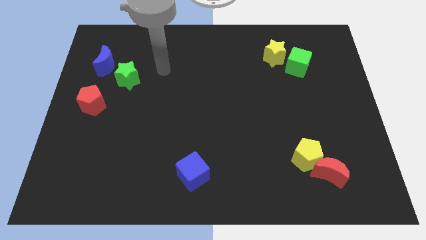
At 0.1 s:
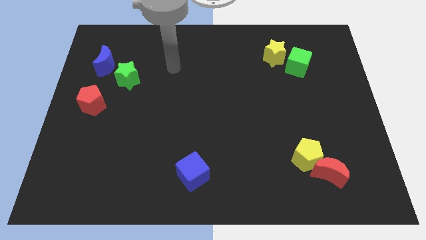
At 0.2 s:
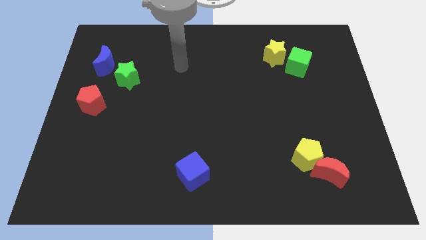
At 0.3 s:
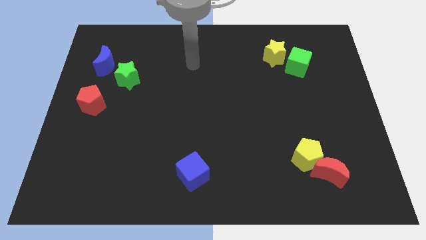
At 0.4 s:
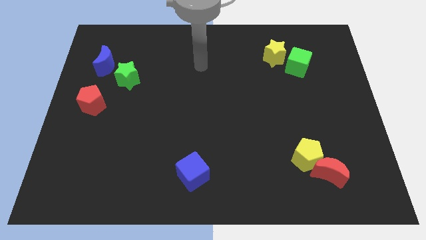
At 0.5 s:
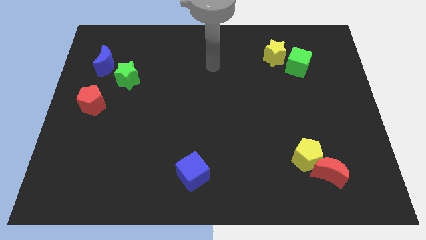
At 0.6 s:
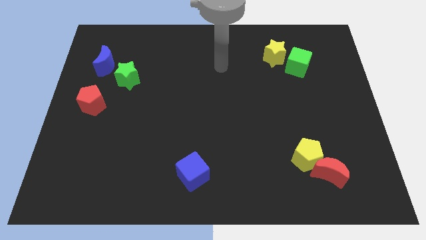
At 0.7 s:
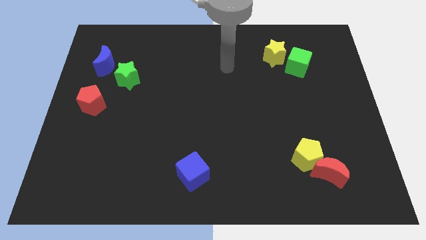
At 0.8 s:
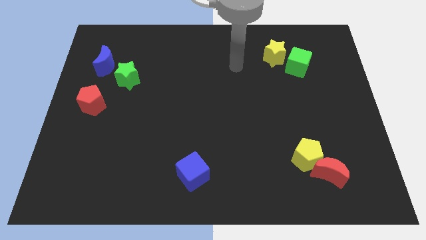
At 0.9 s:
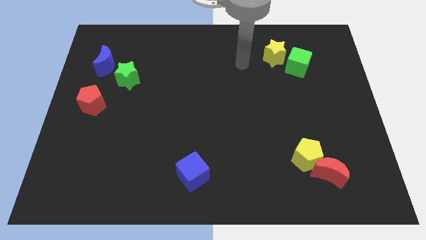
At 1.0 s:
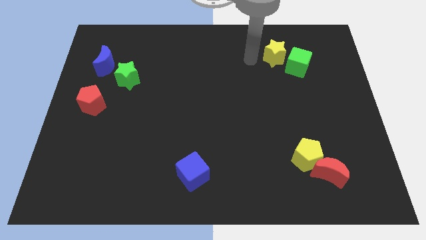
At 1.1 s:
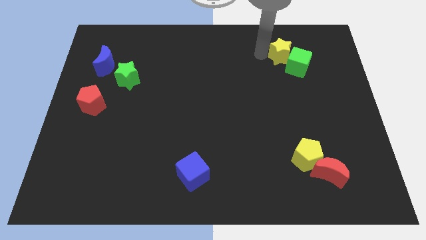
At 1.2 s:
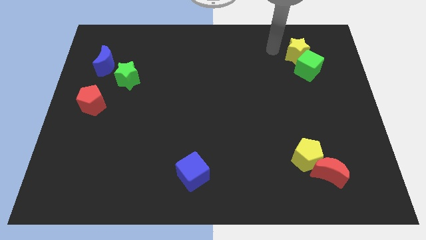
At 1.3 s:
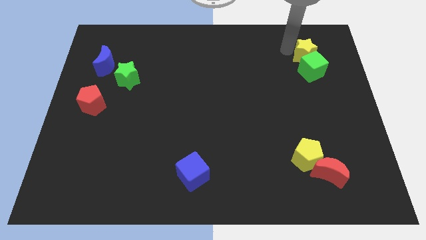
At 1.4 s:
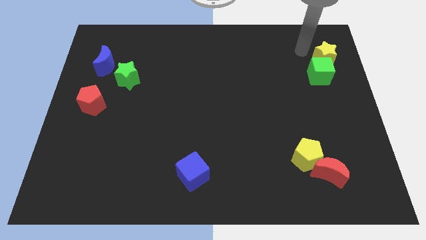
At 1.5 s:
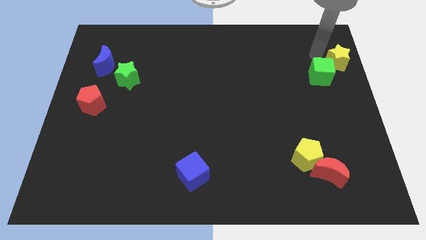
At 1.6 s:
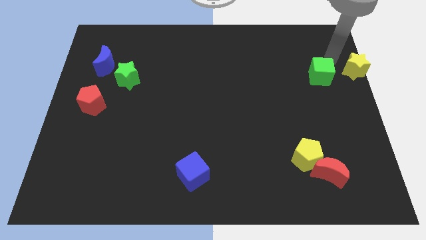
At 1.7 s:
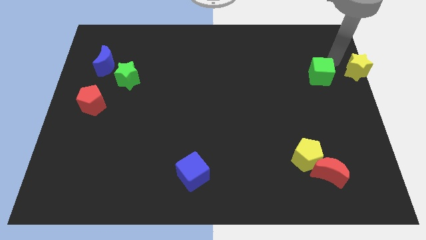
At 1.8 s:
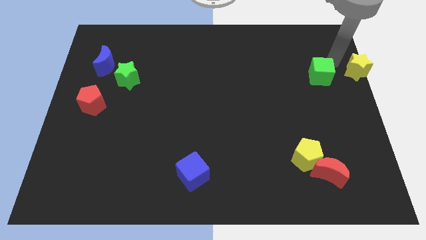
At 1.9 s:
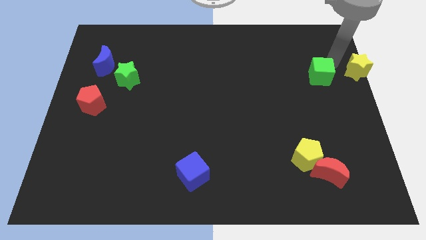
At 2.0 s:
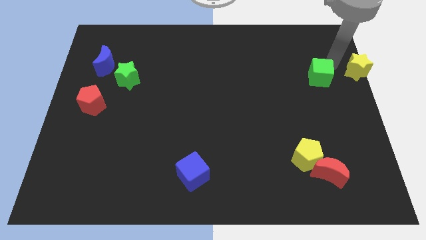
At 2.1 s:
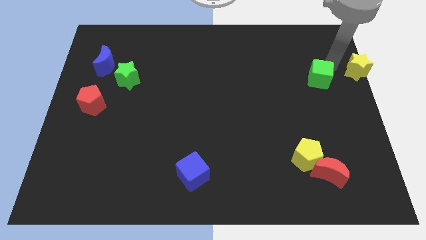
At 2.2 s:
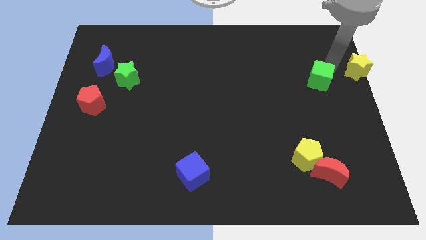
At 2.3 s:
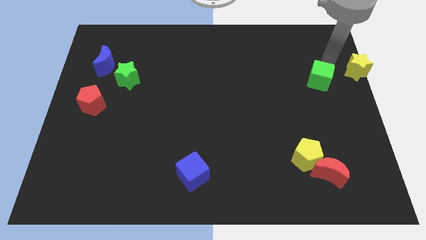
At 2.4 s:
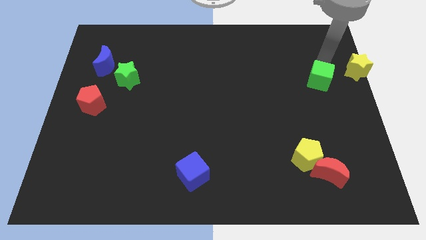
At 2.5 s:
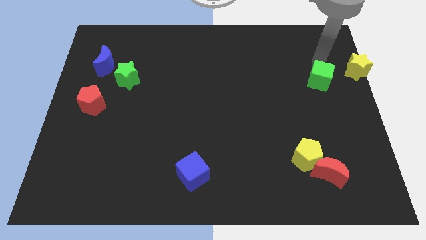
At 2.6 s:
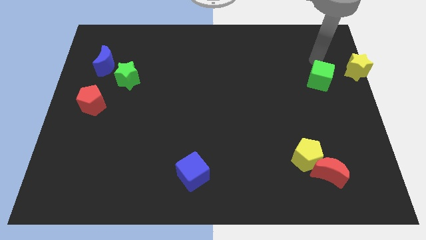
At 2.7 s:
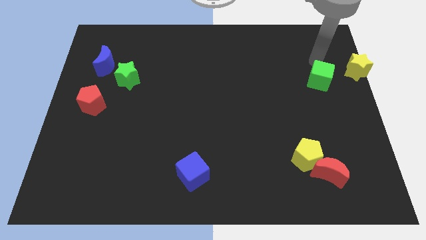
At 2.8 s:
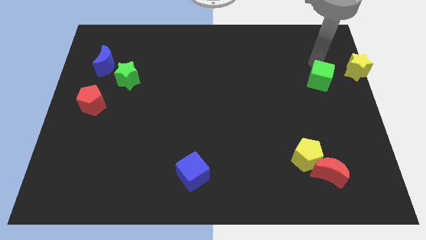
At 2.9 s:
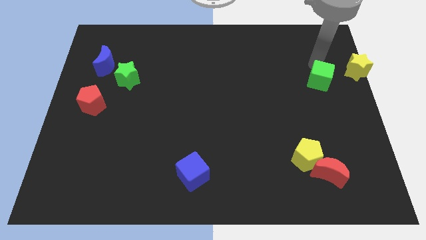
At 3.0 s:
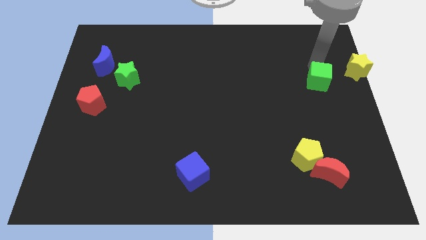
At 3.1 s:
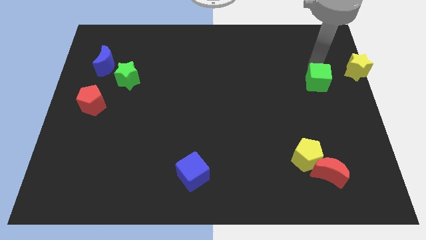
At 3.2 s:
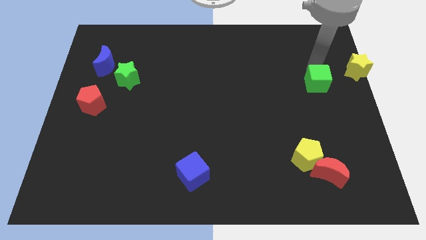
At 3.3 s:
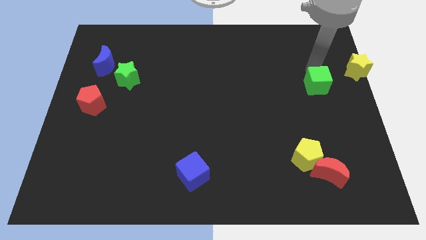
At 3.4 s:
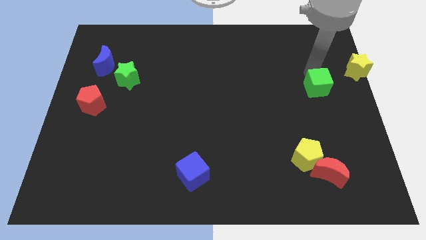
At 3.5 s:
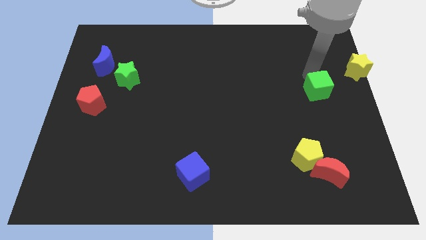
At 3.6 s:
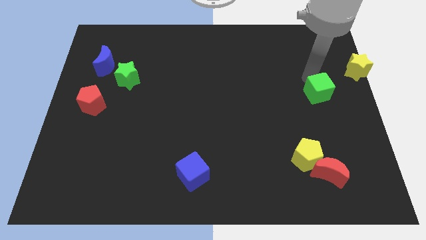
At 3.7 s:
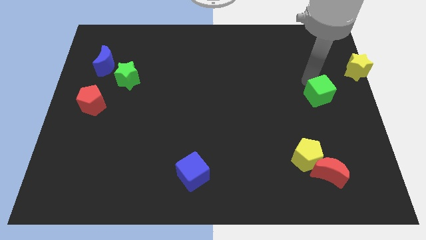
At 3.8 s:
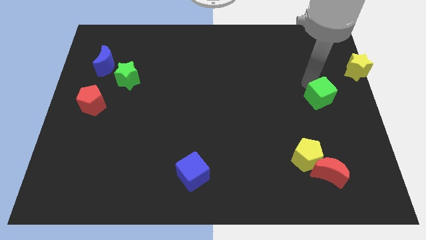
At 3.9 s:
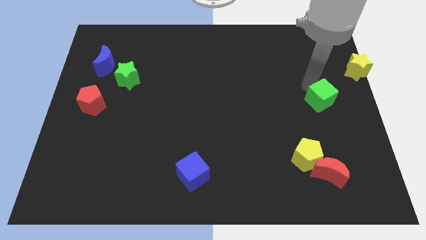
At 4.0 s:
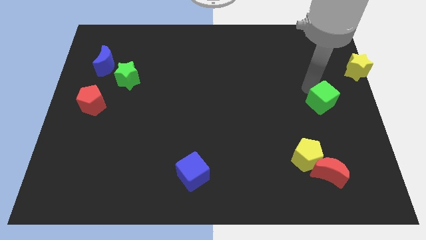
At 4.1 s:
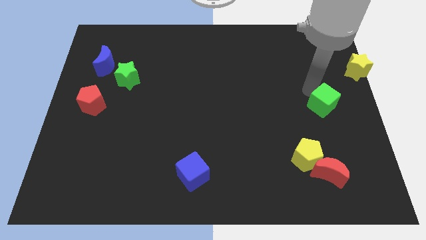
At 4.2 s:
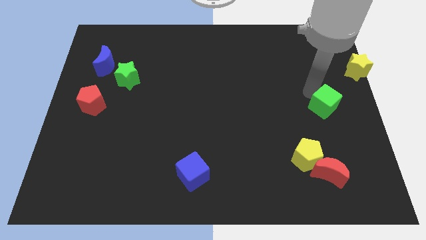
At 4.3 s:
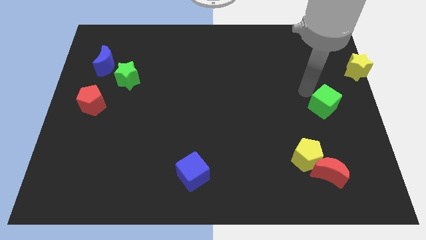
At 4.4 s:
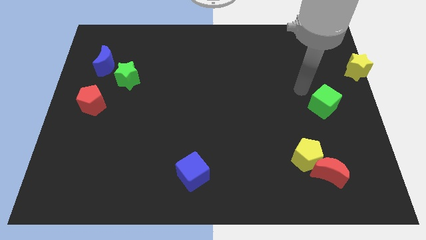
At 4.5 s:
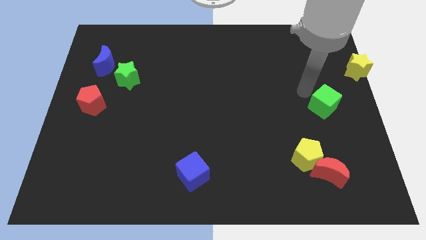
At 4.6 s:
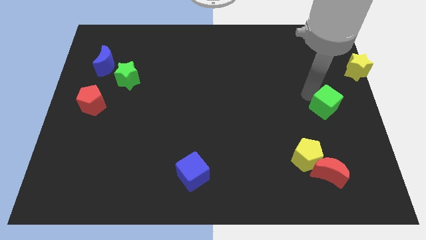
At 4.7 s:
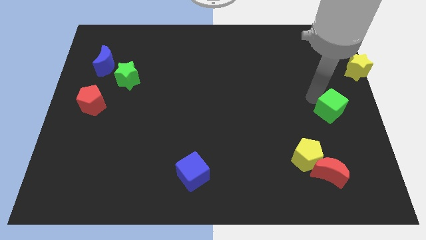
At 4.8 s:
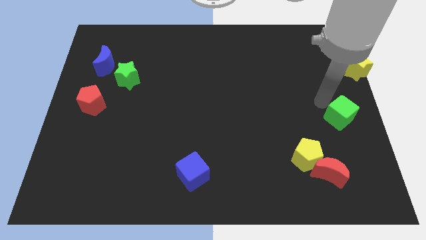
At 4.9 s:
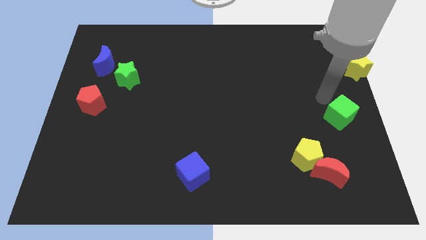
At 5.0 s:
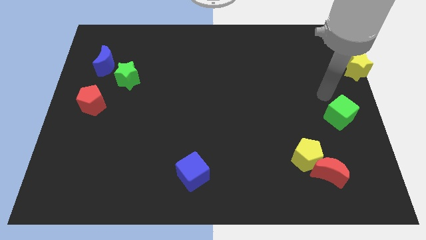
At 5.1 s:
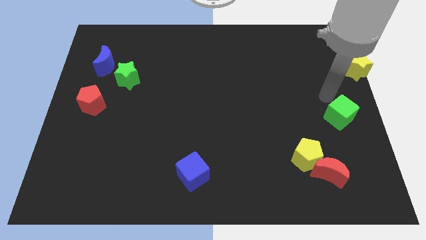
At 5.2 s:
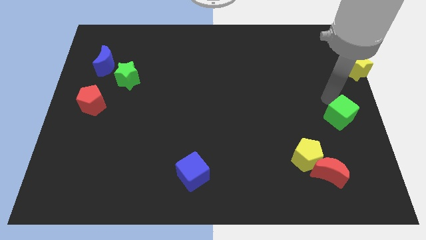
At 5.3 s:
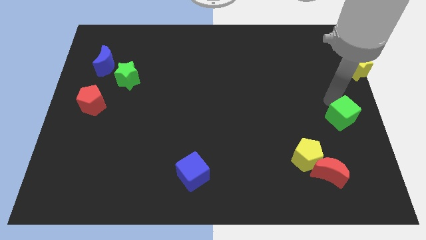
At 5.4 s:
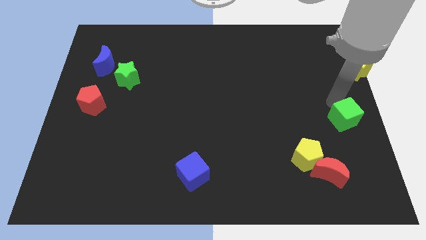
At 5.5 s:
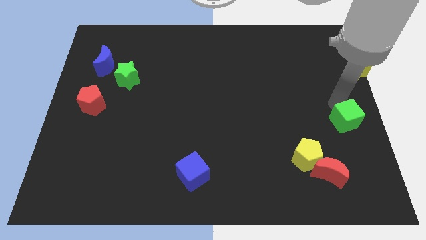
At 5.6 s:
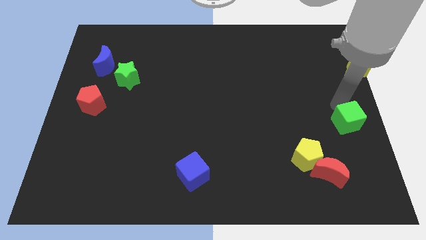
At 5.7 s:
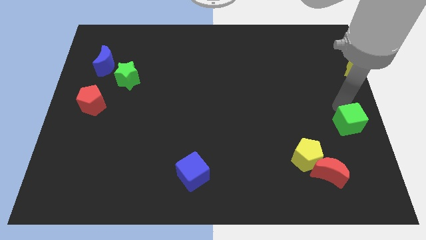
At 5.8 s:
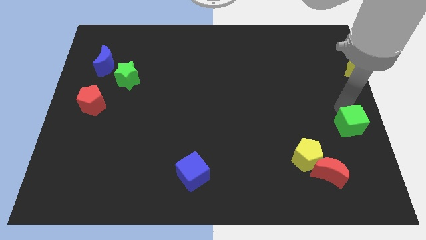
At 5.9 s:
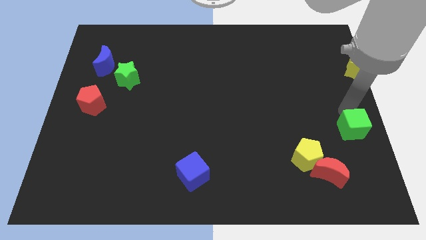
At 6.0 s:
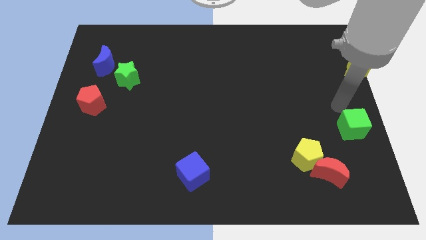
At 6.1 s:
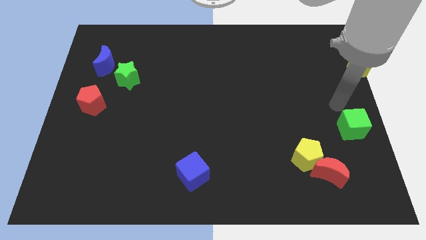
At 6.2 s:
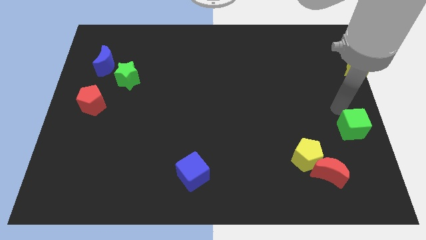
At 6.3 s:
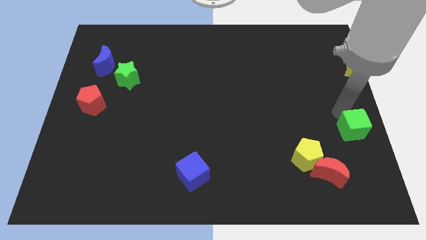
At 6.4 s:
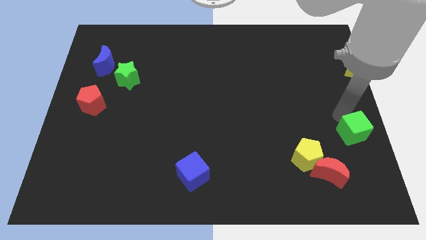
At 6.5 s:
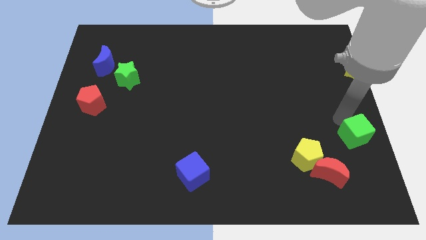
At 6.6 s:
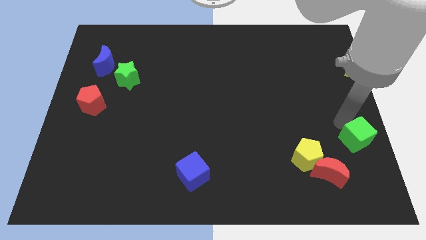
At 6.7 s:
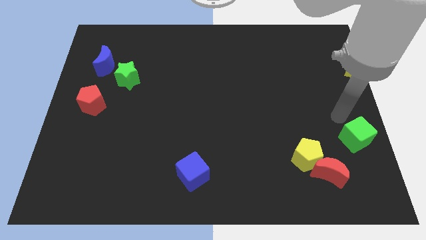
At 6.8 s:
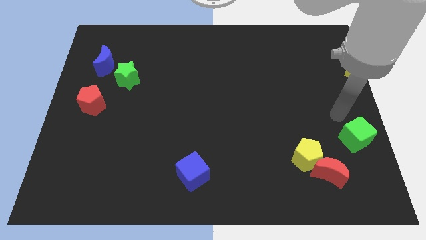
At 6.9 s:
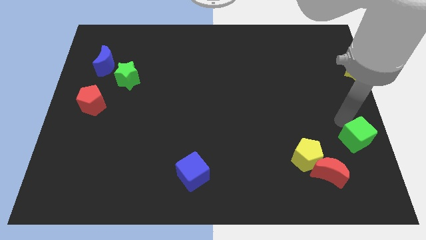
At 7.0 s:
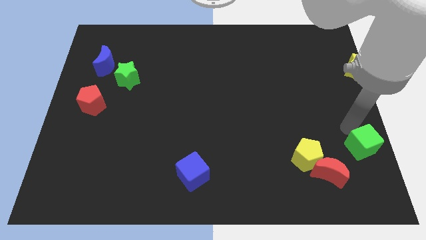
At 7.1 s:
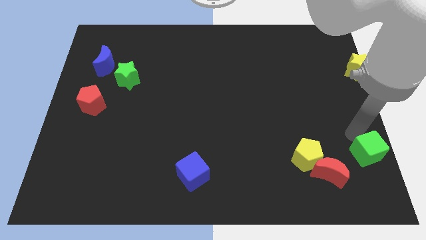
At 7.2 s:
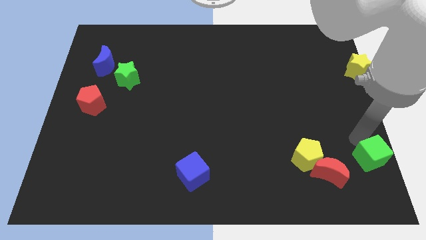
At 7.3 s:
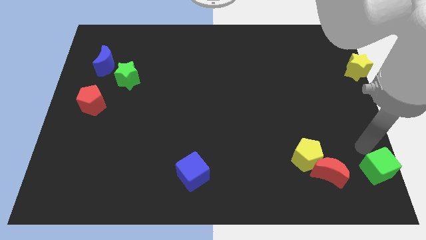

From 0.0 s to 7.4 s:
move the green cube to the bottom right
